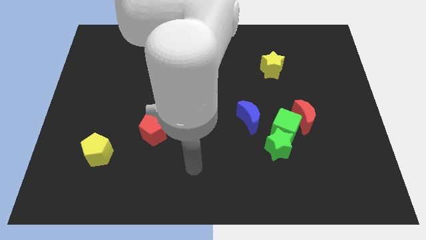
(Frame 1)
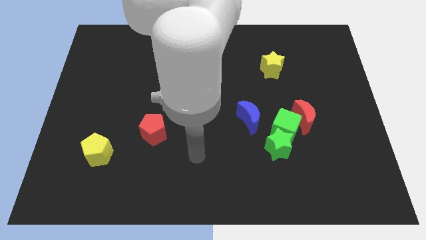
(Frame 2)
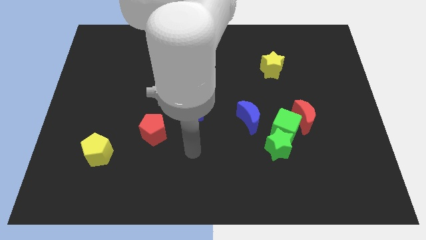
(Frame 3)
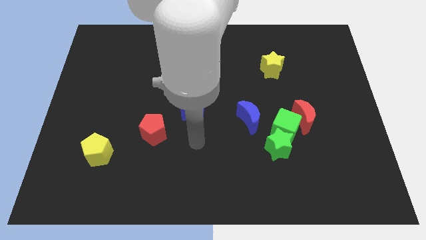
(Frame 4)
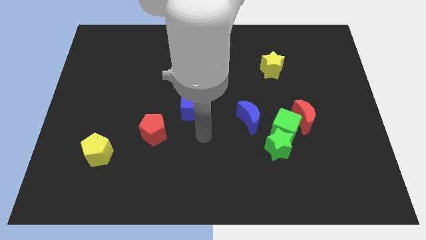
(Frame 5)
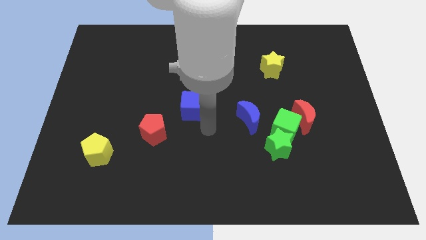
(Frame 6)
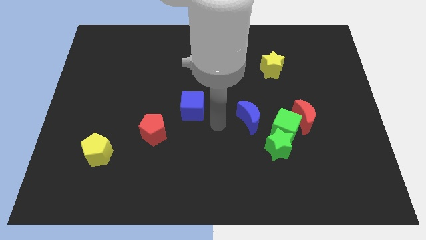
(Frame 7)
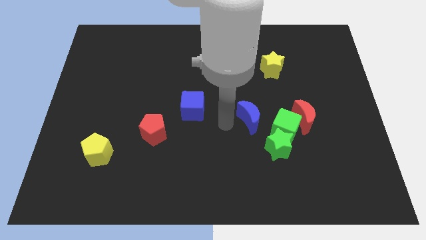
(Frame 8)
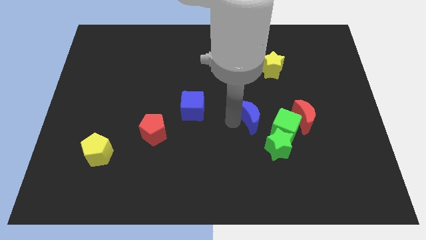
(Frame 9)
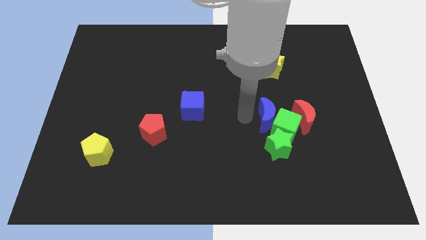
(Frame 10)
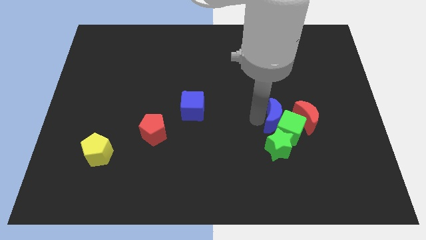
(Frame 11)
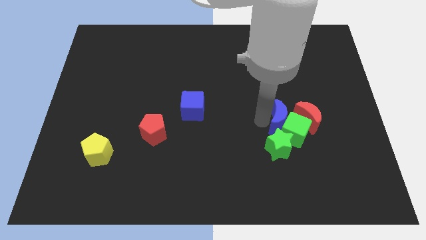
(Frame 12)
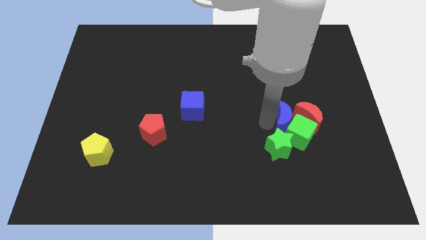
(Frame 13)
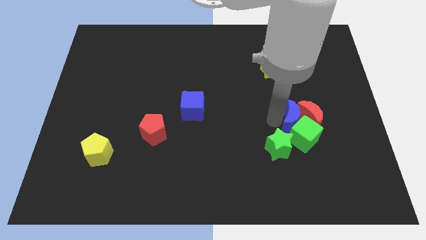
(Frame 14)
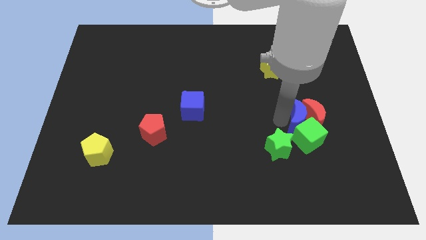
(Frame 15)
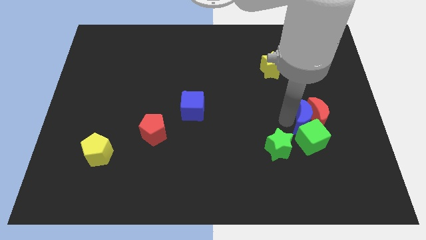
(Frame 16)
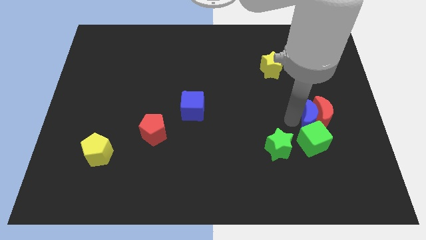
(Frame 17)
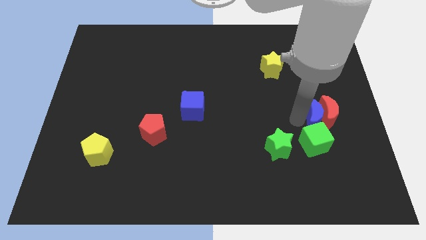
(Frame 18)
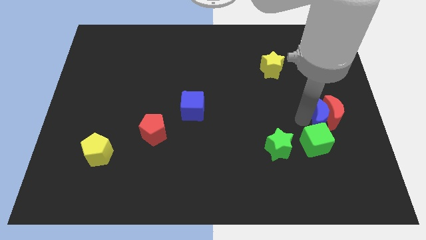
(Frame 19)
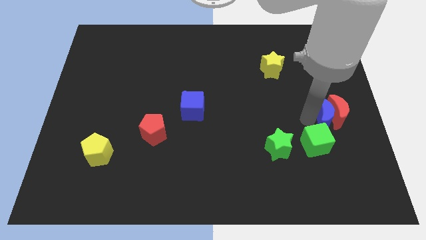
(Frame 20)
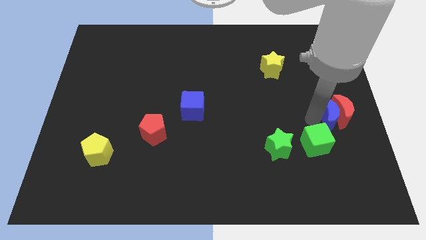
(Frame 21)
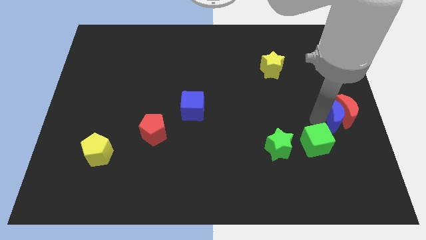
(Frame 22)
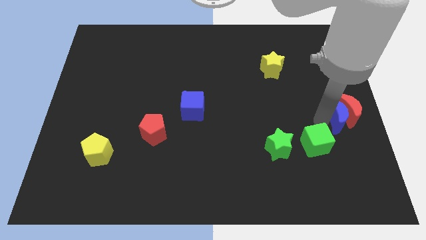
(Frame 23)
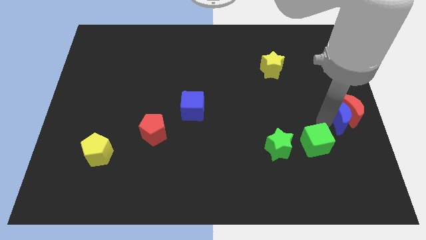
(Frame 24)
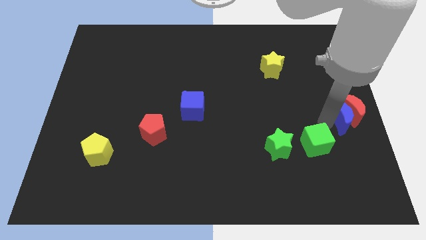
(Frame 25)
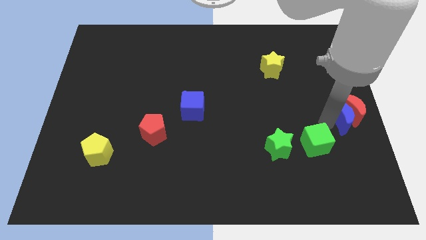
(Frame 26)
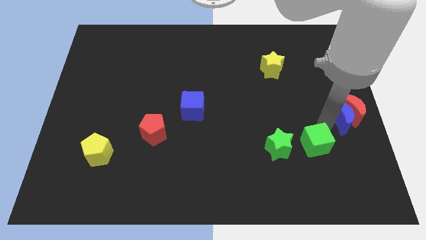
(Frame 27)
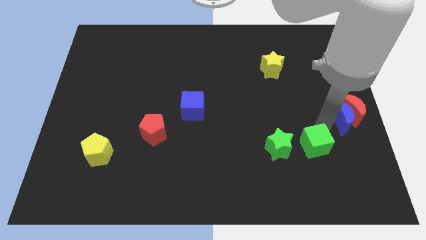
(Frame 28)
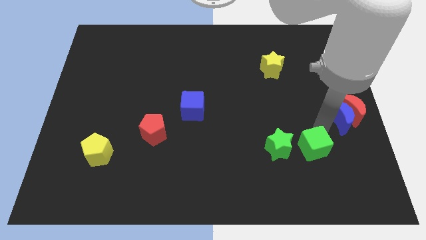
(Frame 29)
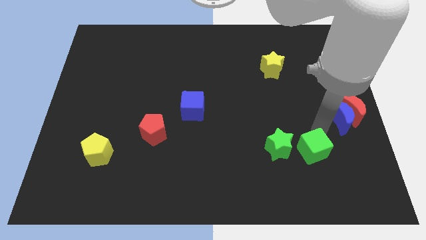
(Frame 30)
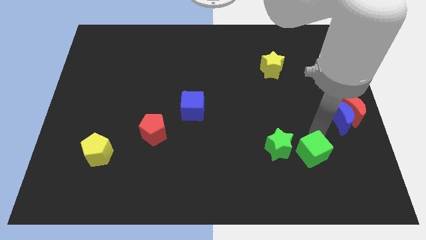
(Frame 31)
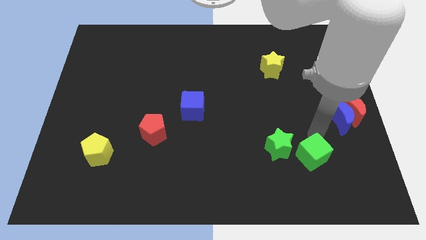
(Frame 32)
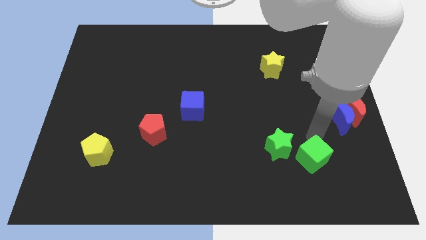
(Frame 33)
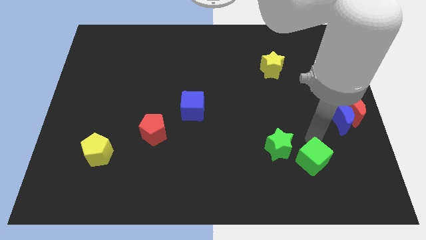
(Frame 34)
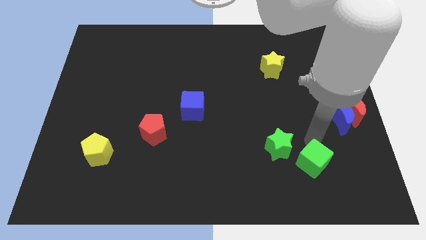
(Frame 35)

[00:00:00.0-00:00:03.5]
separate the green cube from the green star, red moon, and blue moon

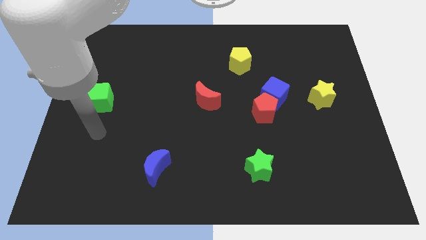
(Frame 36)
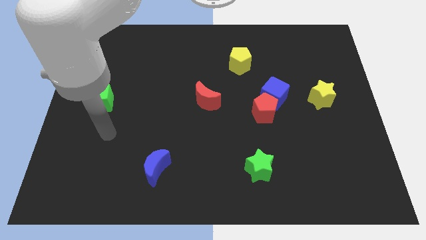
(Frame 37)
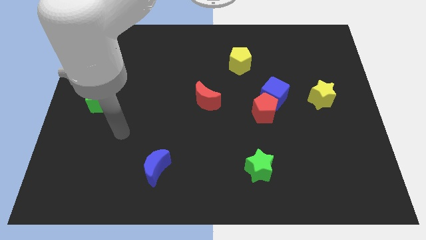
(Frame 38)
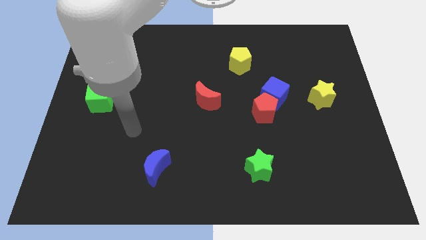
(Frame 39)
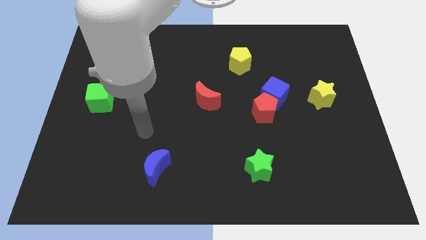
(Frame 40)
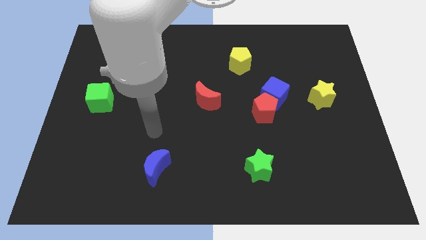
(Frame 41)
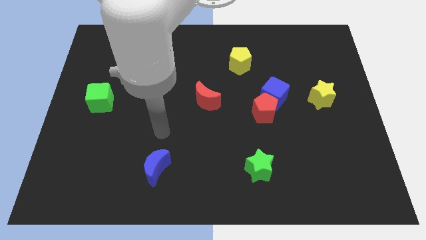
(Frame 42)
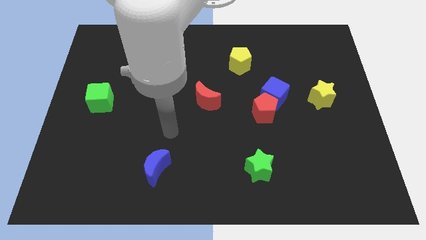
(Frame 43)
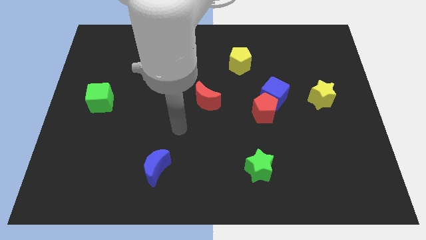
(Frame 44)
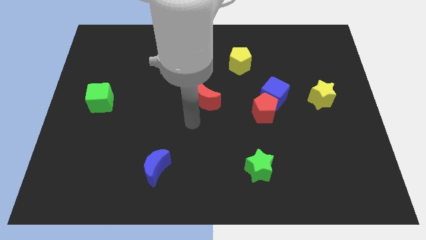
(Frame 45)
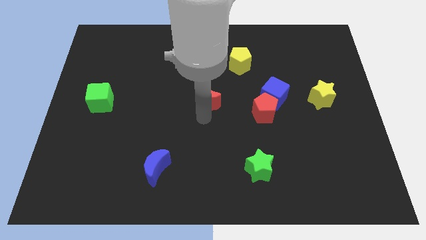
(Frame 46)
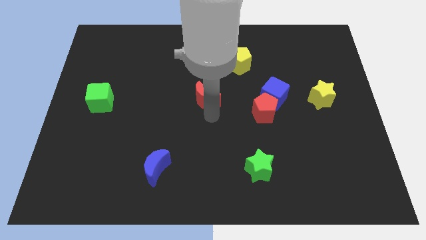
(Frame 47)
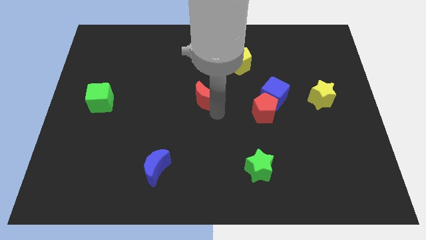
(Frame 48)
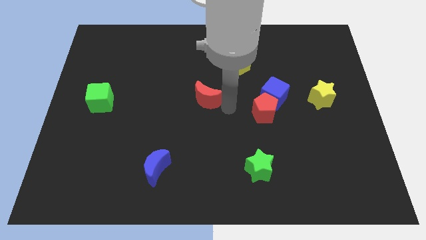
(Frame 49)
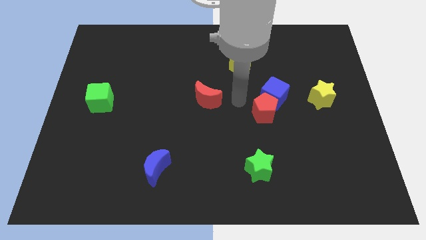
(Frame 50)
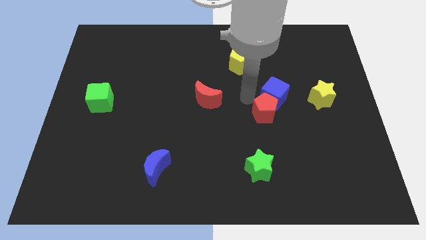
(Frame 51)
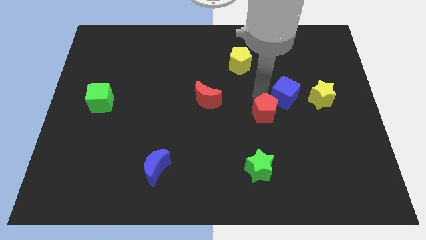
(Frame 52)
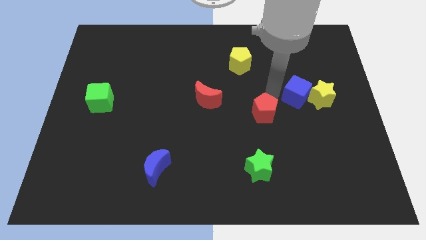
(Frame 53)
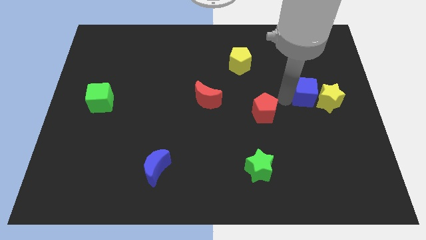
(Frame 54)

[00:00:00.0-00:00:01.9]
separate the red pentagon from the blue cube

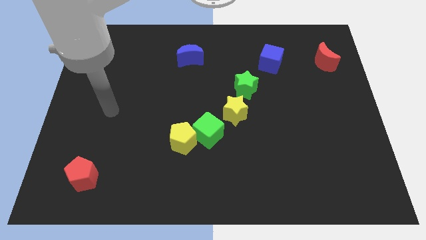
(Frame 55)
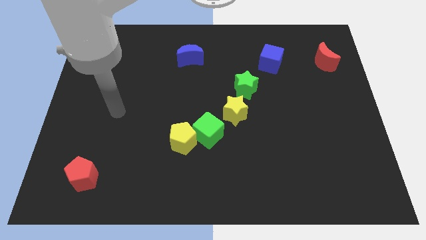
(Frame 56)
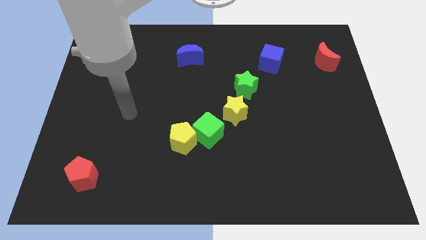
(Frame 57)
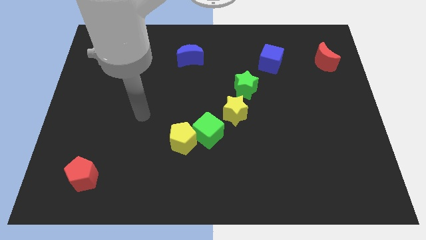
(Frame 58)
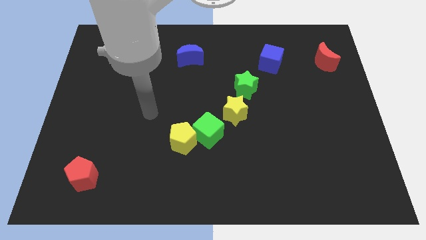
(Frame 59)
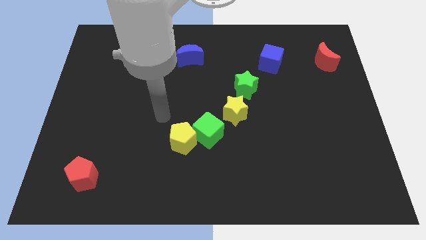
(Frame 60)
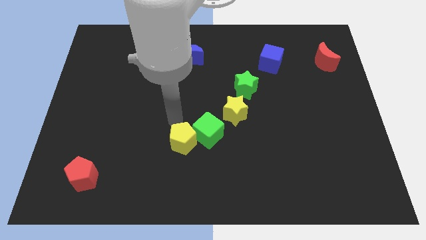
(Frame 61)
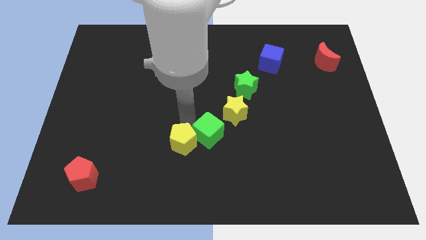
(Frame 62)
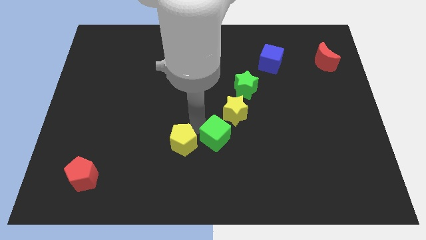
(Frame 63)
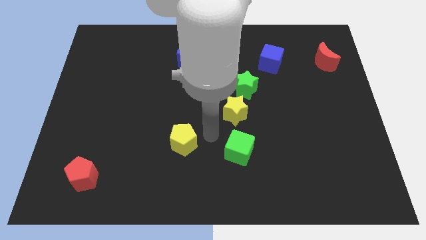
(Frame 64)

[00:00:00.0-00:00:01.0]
pull the yellow pentagon apart from the green cube

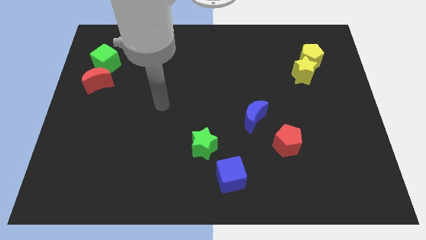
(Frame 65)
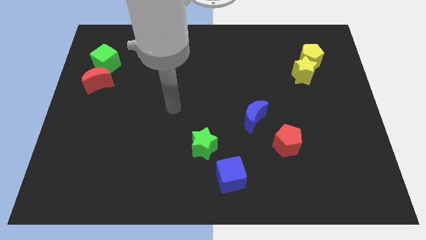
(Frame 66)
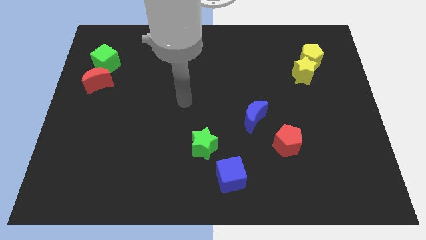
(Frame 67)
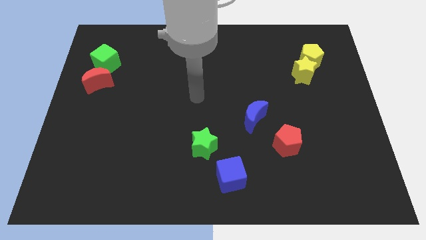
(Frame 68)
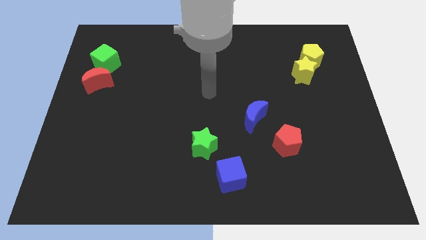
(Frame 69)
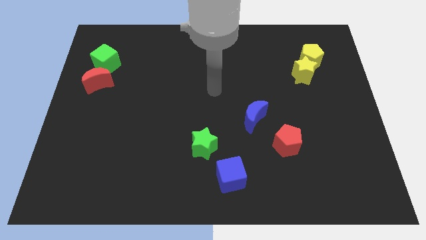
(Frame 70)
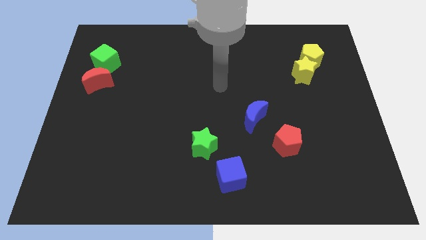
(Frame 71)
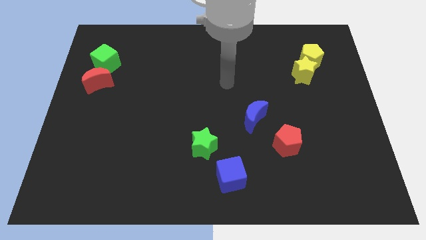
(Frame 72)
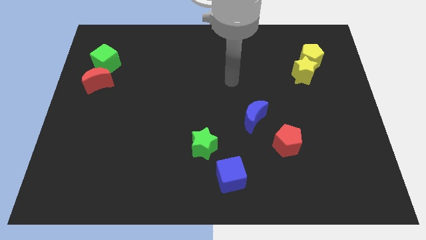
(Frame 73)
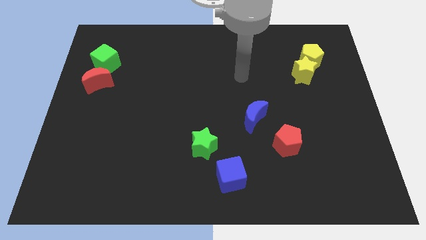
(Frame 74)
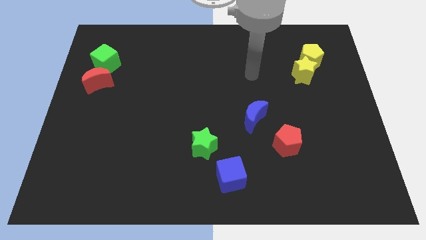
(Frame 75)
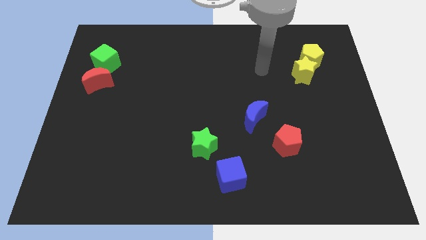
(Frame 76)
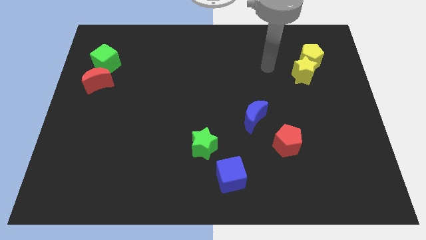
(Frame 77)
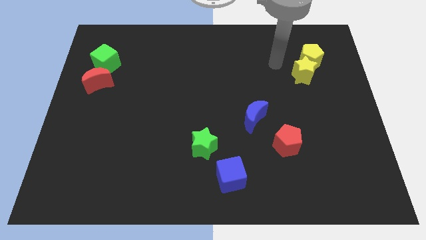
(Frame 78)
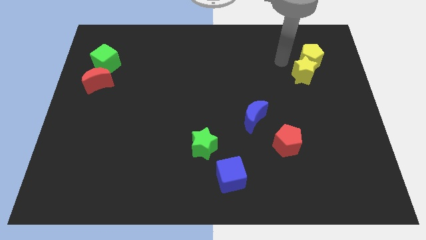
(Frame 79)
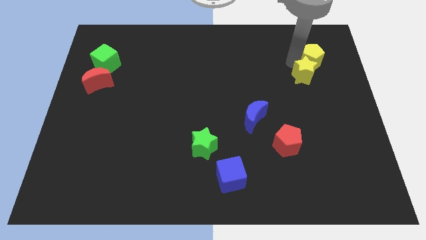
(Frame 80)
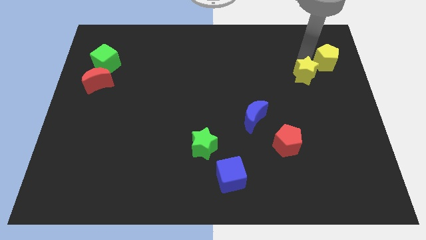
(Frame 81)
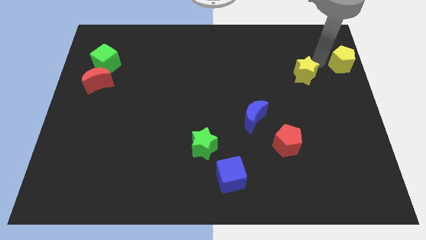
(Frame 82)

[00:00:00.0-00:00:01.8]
pull the yellow star apart from the yellow pentagon

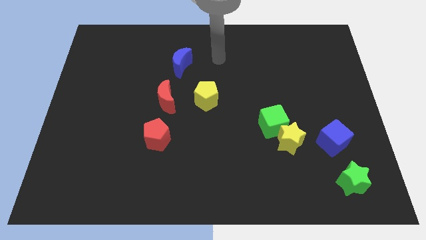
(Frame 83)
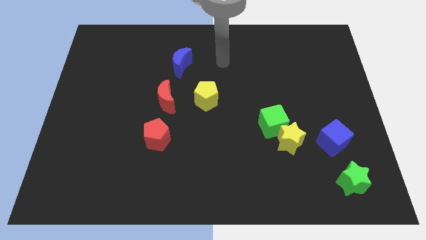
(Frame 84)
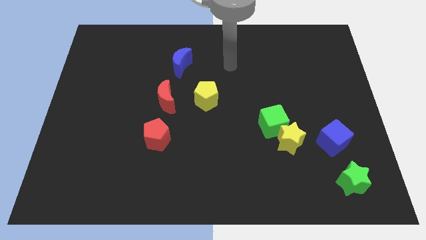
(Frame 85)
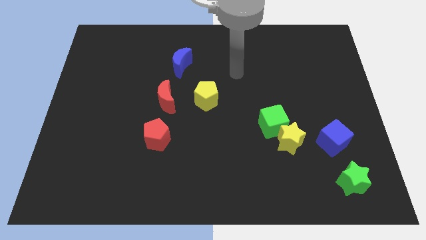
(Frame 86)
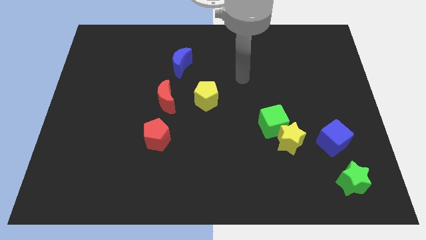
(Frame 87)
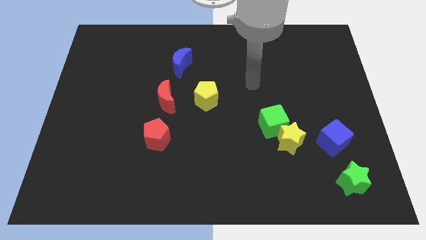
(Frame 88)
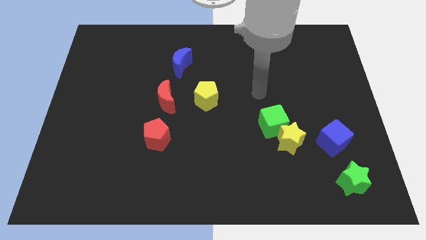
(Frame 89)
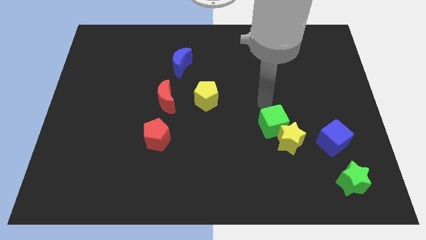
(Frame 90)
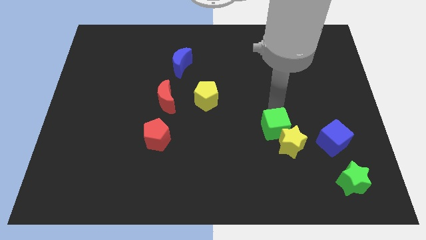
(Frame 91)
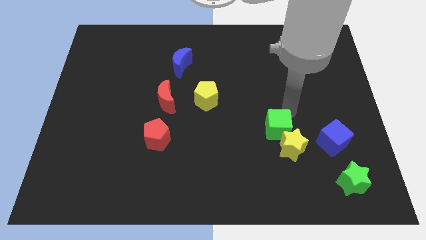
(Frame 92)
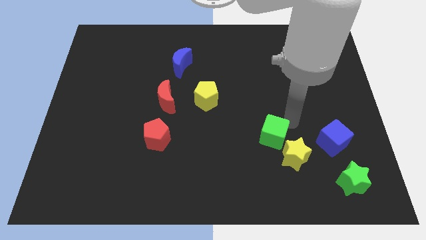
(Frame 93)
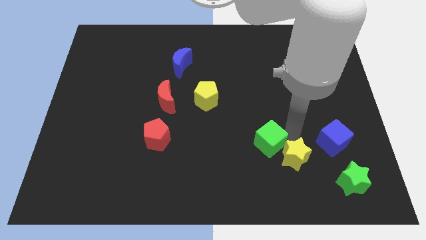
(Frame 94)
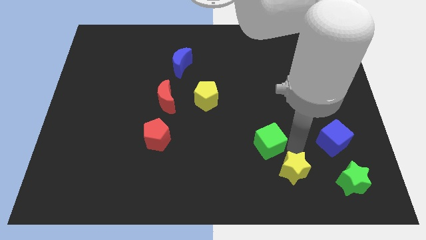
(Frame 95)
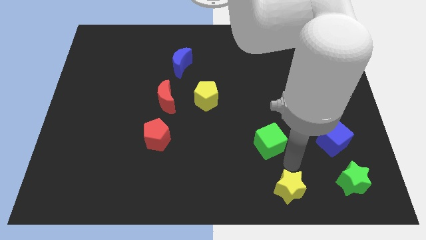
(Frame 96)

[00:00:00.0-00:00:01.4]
pull the green cube apart from the yellow star
